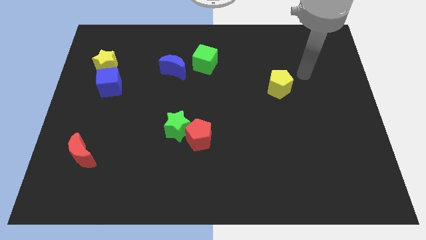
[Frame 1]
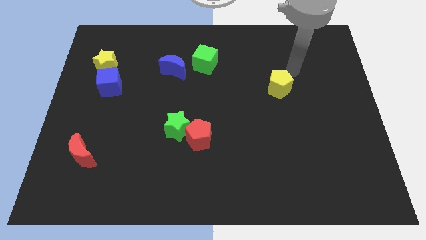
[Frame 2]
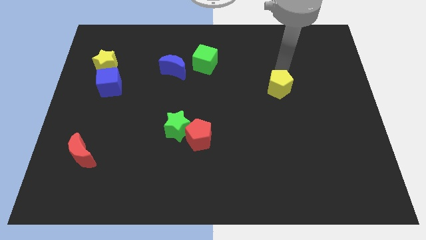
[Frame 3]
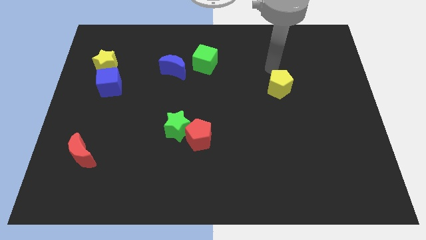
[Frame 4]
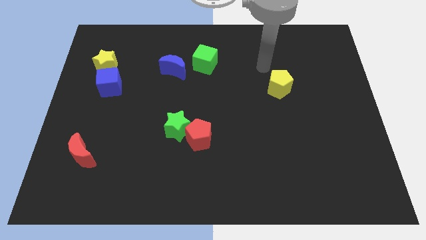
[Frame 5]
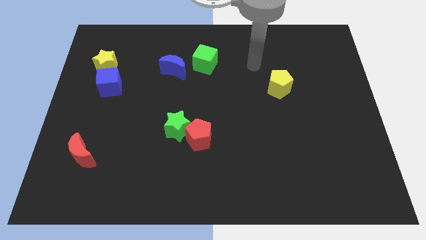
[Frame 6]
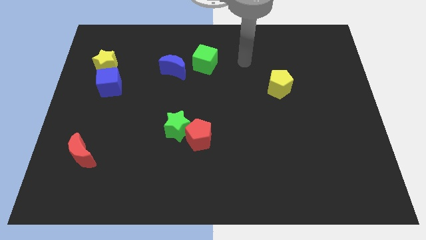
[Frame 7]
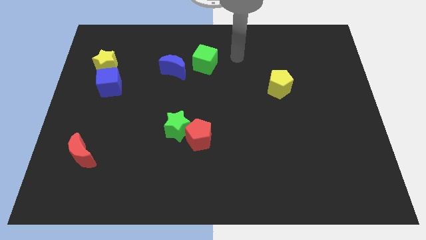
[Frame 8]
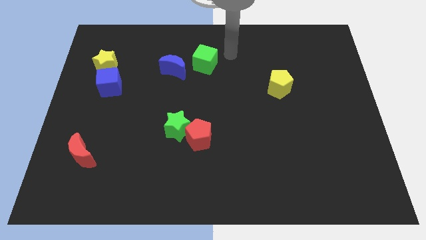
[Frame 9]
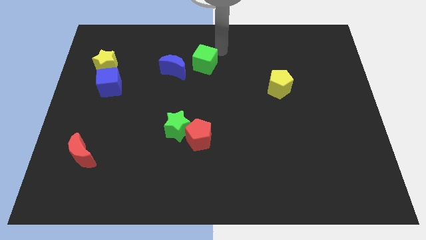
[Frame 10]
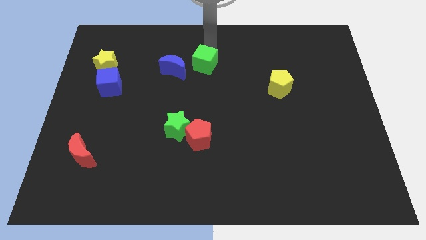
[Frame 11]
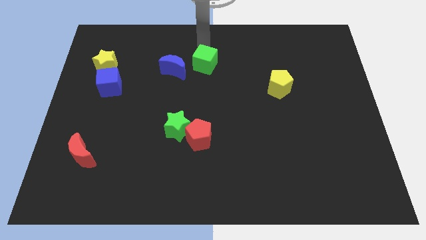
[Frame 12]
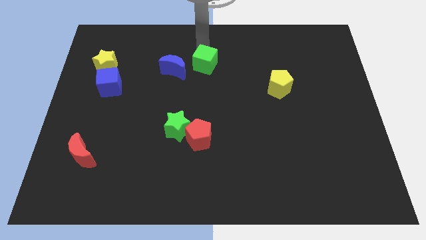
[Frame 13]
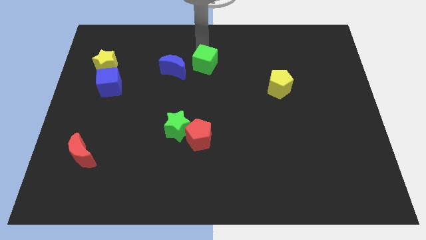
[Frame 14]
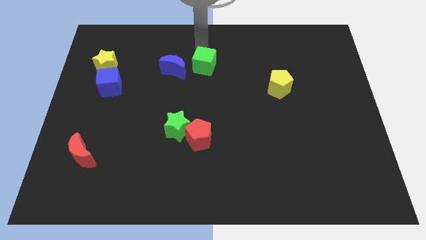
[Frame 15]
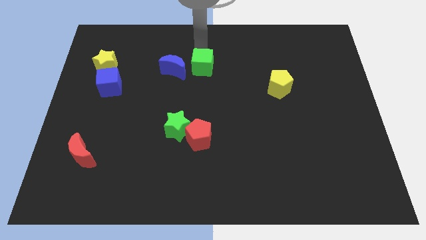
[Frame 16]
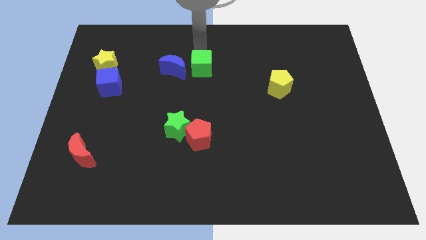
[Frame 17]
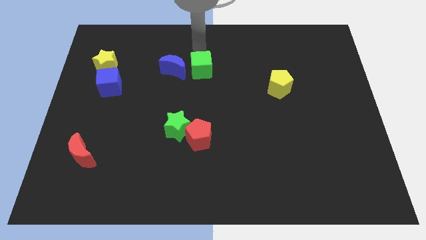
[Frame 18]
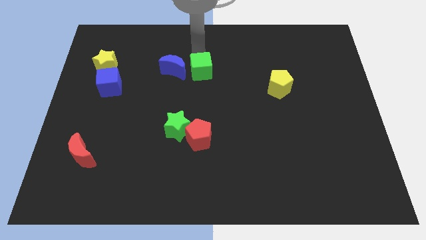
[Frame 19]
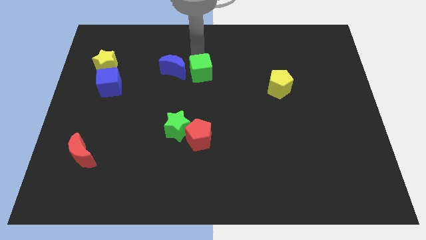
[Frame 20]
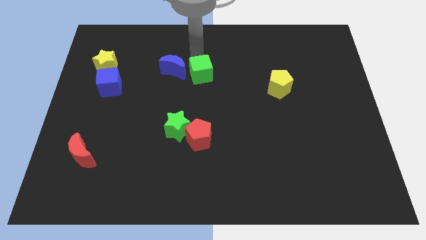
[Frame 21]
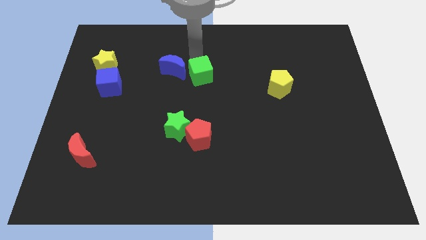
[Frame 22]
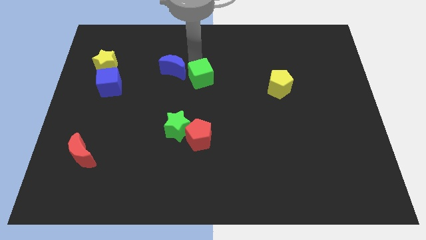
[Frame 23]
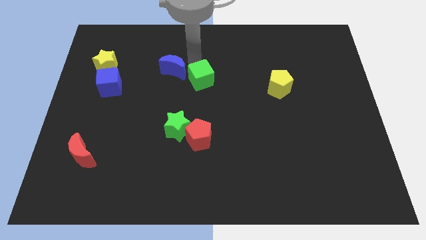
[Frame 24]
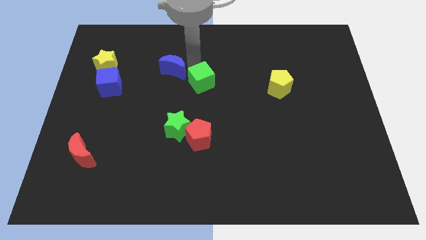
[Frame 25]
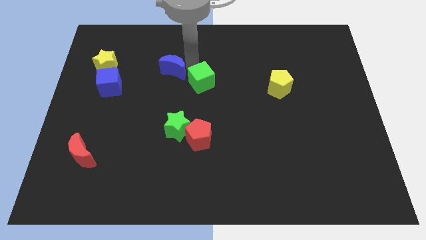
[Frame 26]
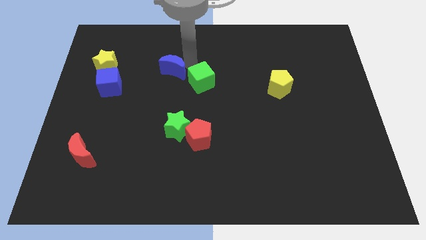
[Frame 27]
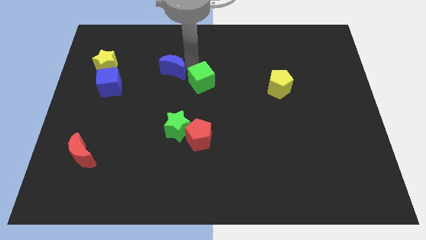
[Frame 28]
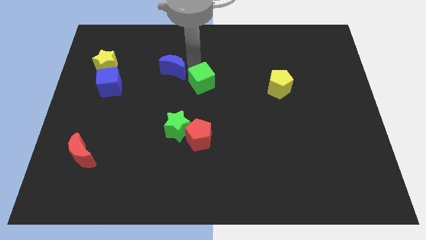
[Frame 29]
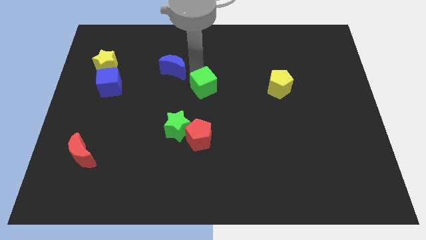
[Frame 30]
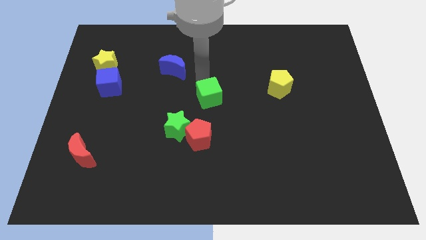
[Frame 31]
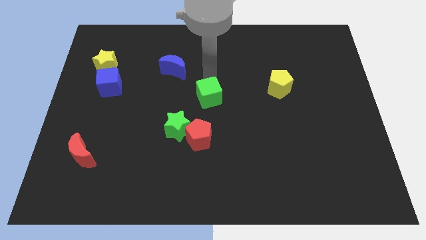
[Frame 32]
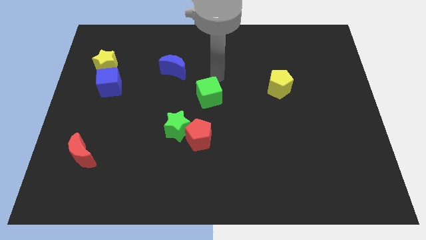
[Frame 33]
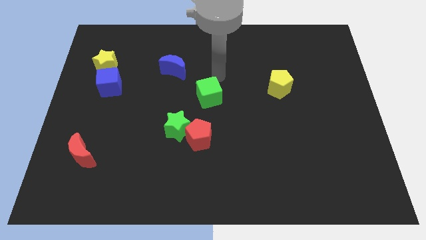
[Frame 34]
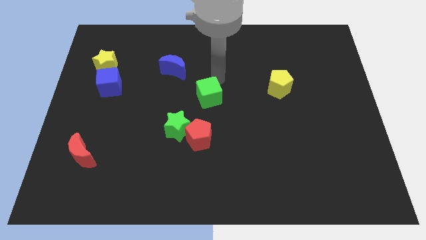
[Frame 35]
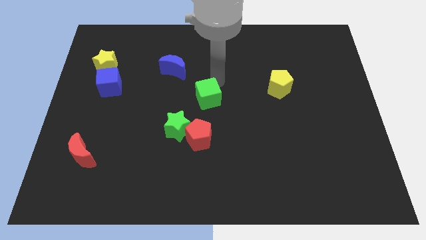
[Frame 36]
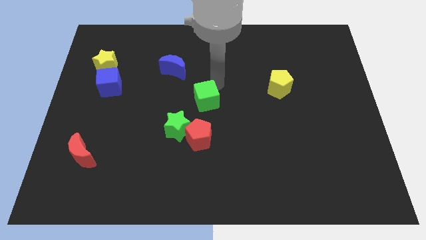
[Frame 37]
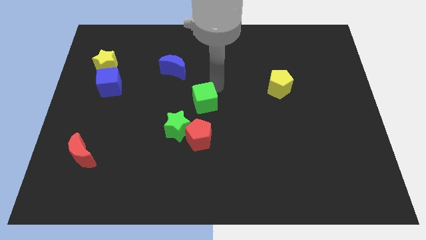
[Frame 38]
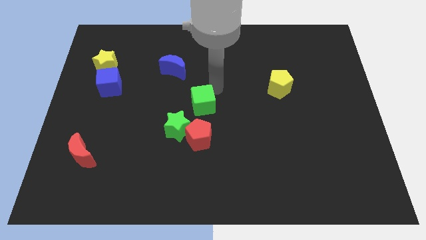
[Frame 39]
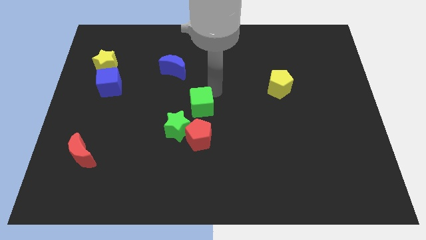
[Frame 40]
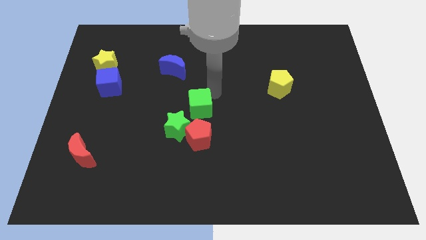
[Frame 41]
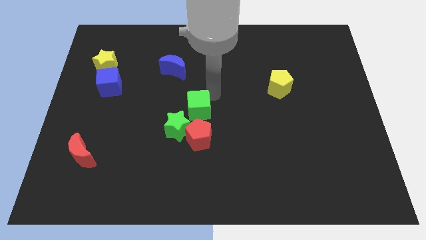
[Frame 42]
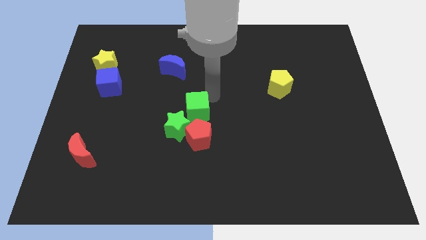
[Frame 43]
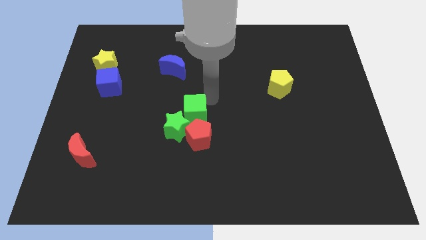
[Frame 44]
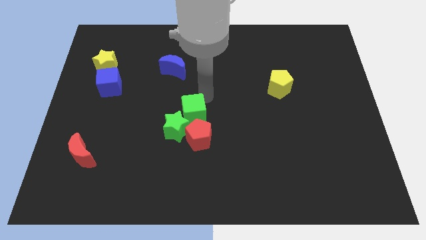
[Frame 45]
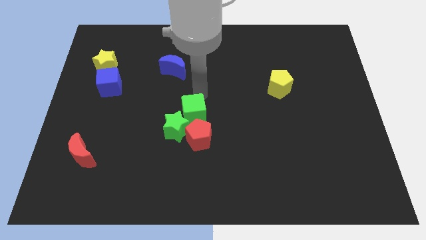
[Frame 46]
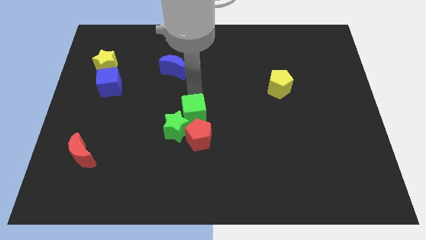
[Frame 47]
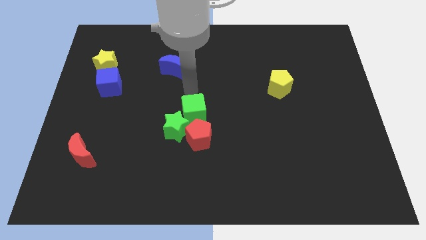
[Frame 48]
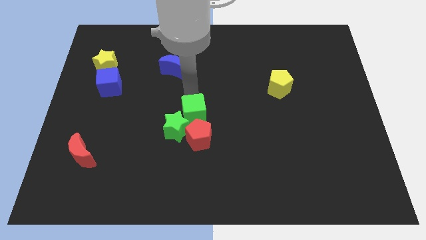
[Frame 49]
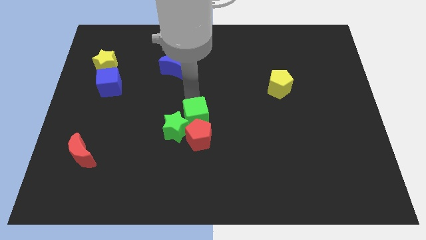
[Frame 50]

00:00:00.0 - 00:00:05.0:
move the green cube towards the red pentagon

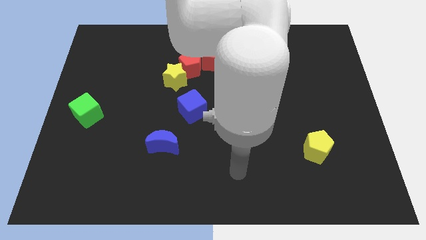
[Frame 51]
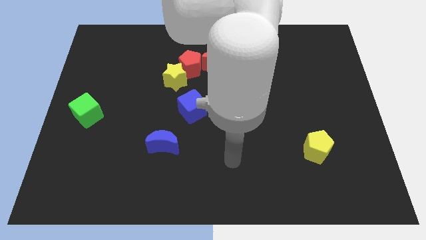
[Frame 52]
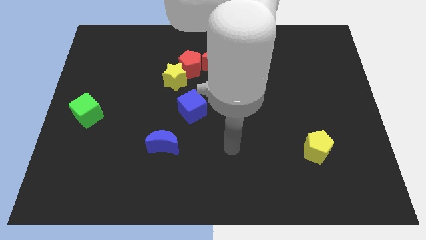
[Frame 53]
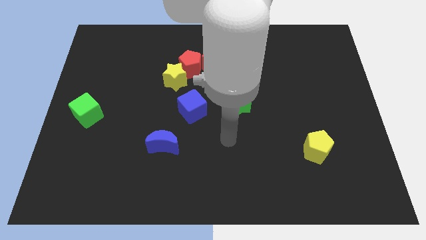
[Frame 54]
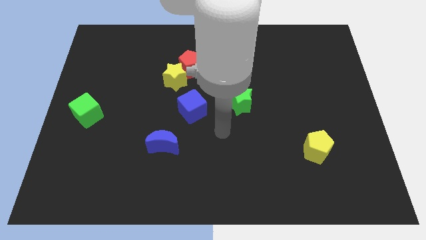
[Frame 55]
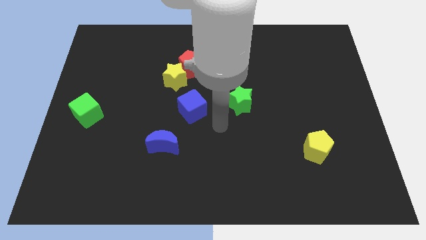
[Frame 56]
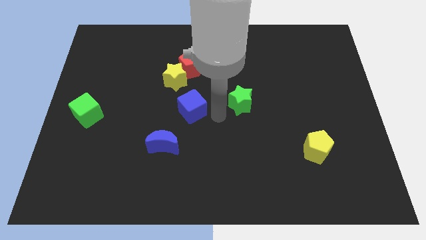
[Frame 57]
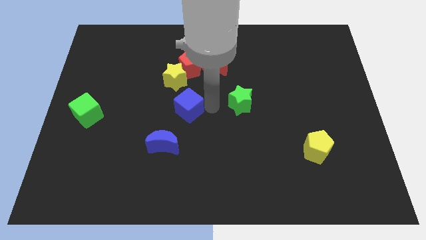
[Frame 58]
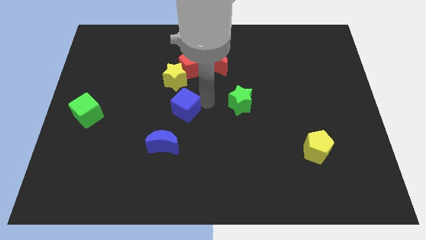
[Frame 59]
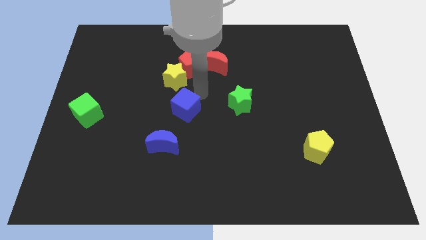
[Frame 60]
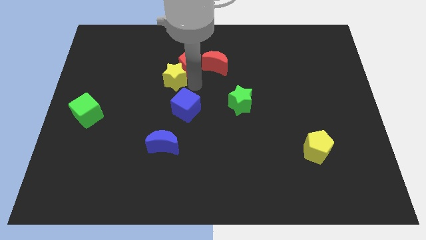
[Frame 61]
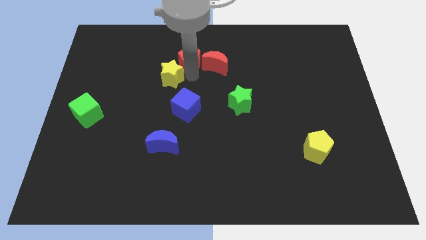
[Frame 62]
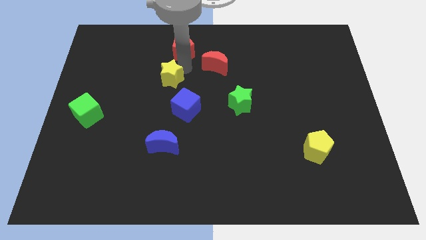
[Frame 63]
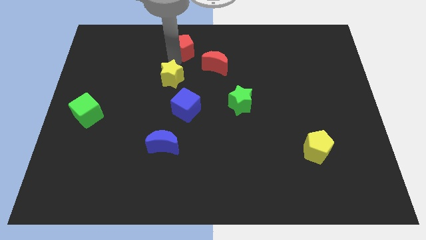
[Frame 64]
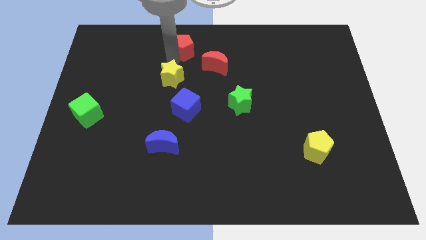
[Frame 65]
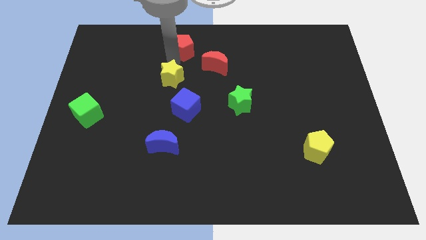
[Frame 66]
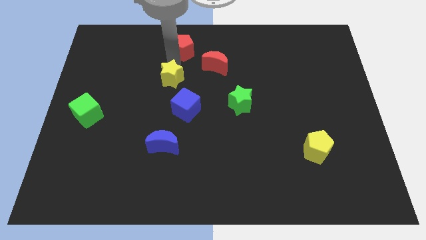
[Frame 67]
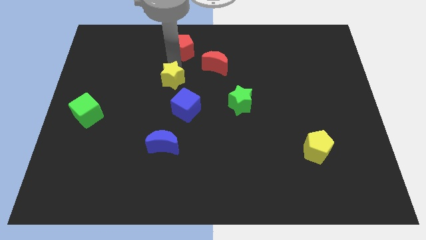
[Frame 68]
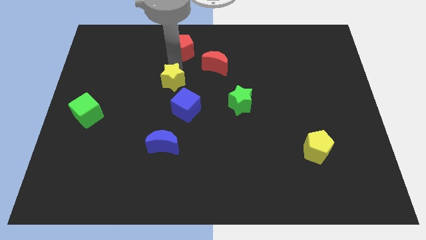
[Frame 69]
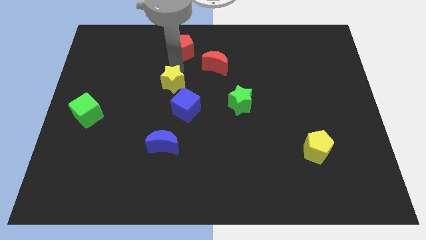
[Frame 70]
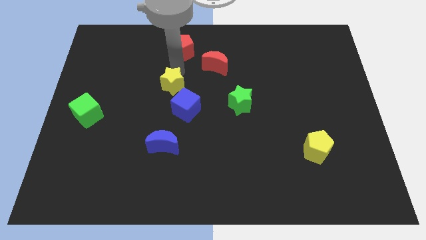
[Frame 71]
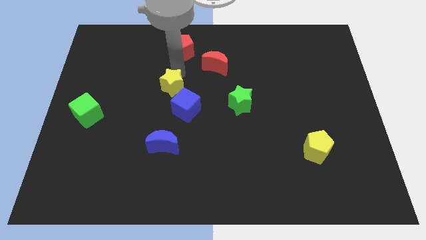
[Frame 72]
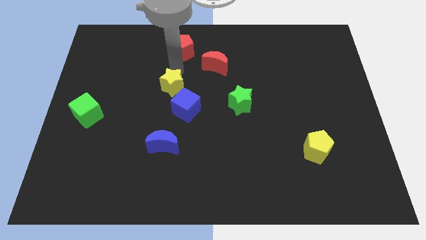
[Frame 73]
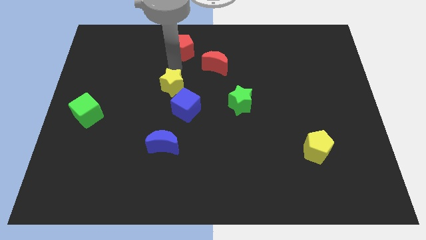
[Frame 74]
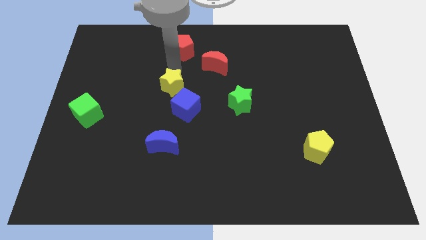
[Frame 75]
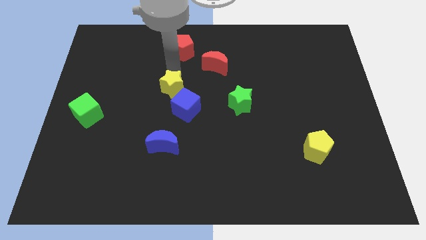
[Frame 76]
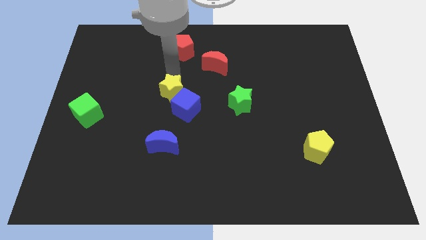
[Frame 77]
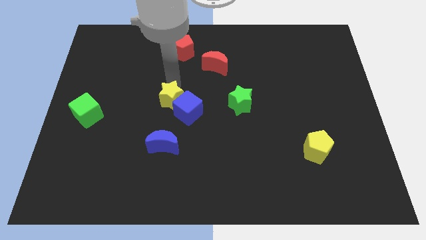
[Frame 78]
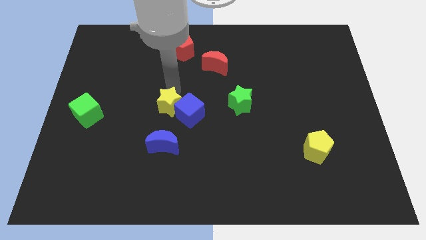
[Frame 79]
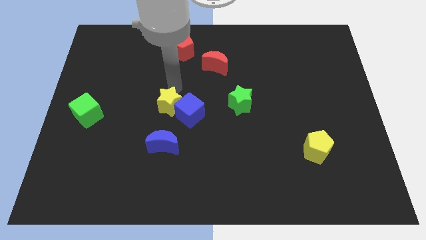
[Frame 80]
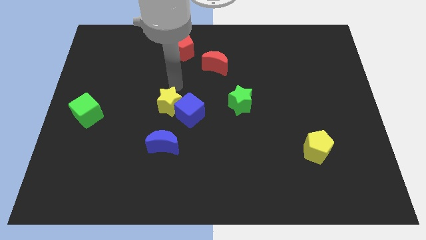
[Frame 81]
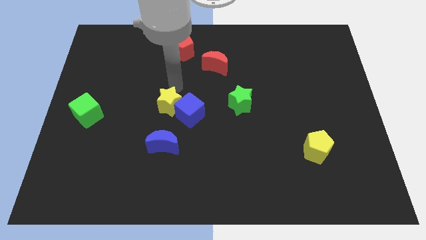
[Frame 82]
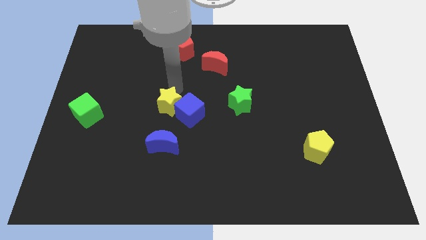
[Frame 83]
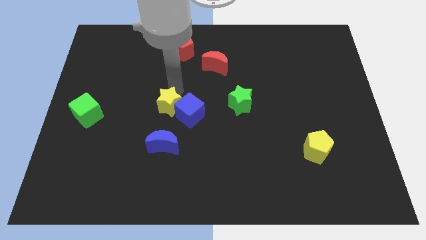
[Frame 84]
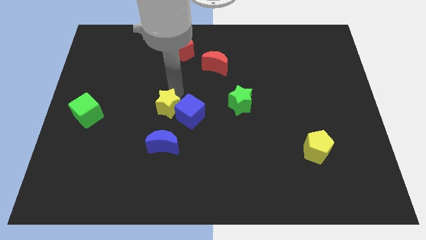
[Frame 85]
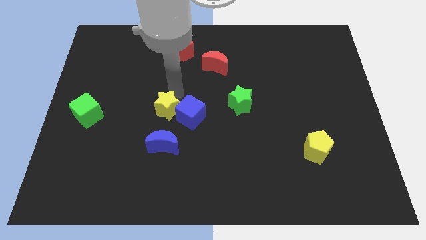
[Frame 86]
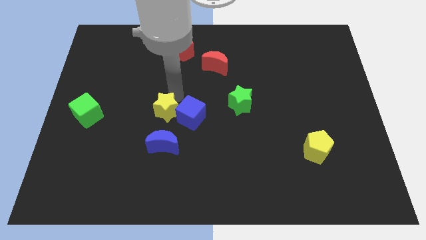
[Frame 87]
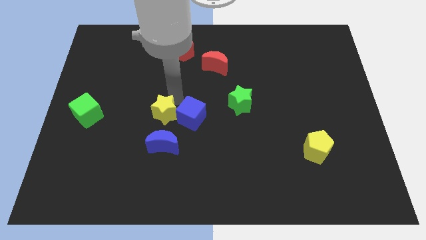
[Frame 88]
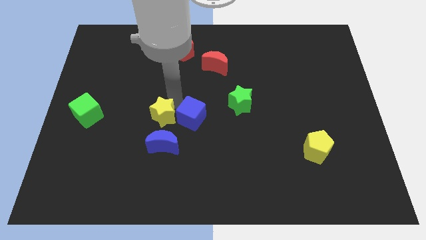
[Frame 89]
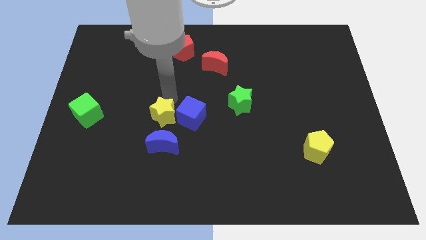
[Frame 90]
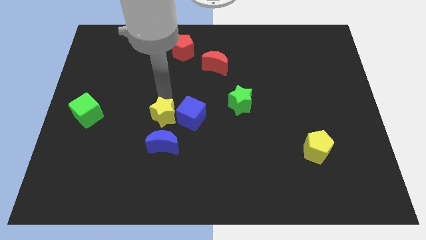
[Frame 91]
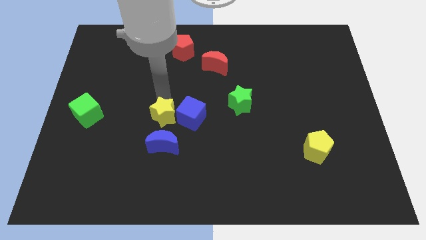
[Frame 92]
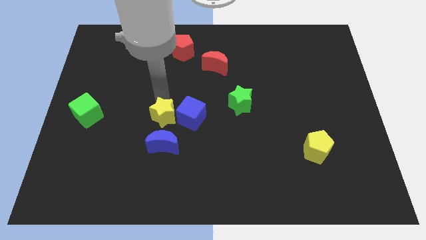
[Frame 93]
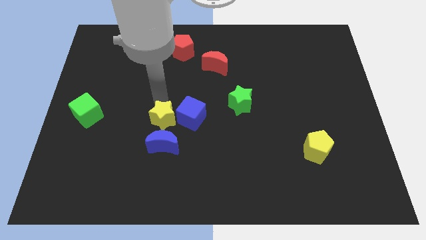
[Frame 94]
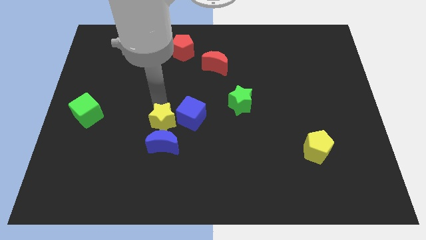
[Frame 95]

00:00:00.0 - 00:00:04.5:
push the yellow star next to the blue moon
